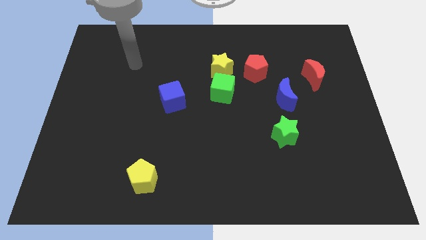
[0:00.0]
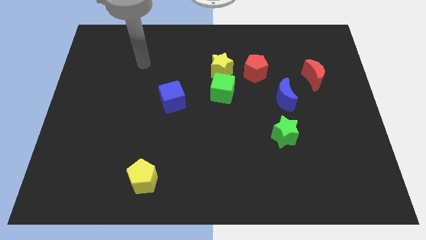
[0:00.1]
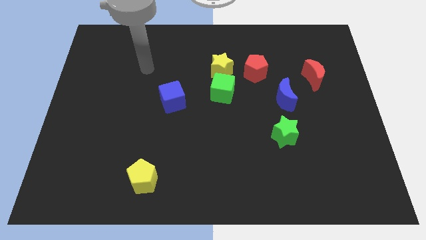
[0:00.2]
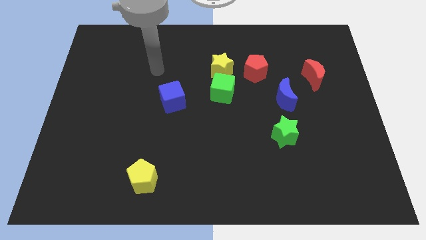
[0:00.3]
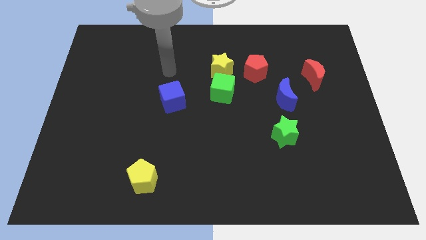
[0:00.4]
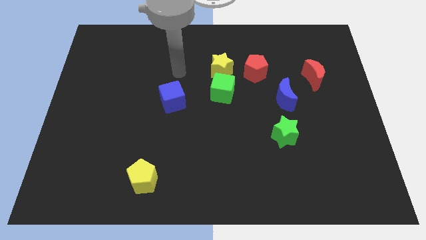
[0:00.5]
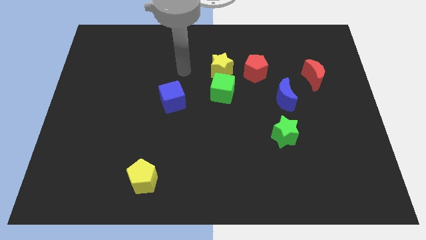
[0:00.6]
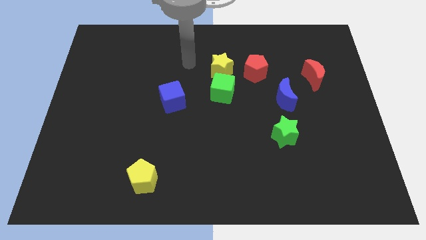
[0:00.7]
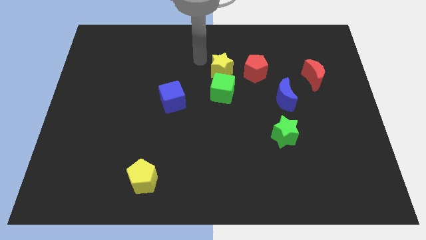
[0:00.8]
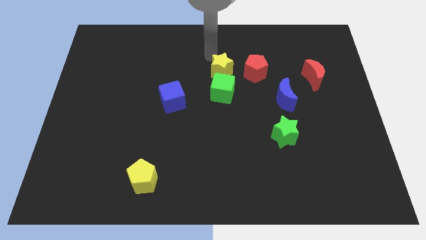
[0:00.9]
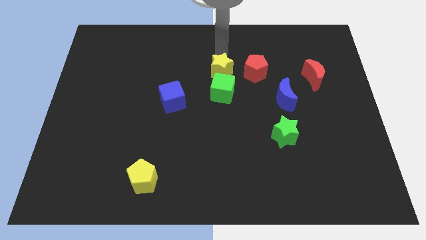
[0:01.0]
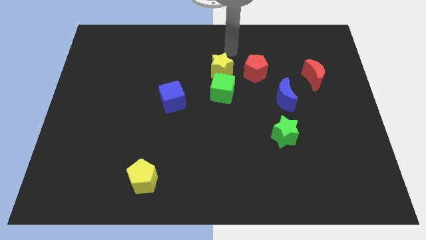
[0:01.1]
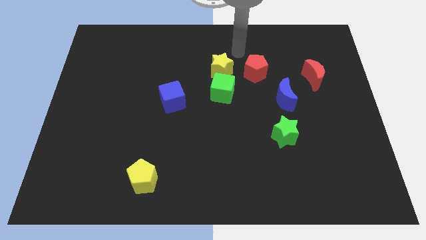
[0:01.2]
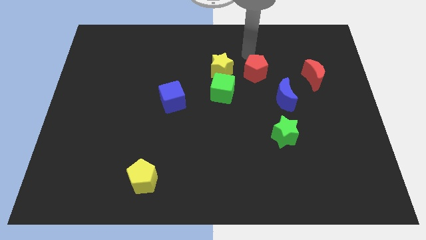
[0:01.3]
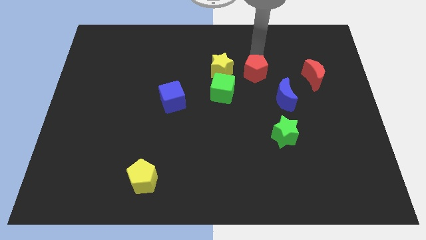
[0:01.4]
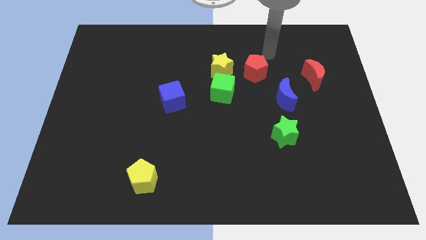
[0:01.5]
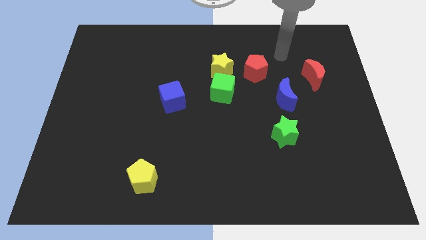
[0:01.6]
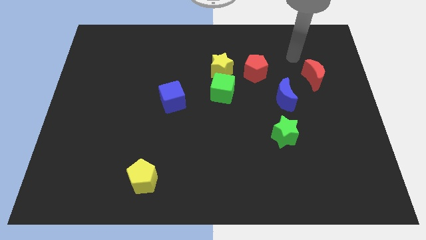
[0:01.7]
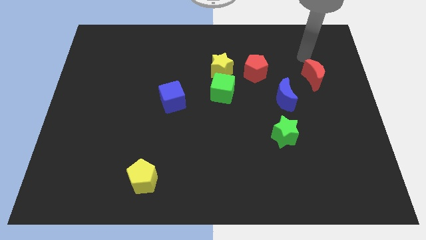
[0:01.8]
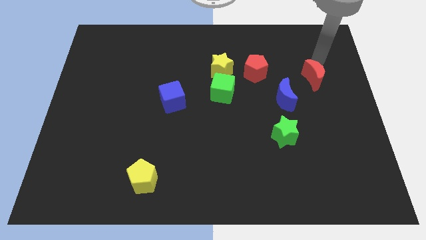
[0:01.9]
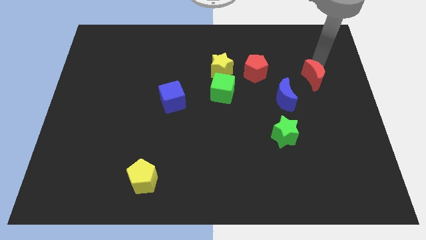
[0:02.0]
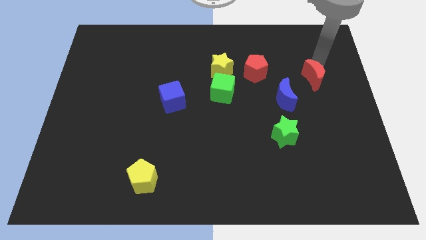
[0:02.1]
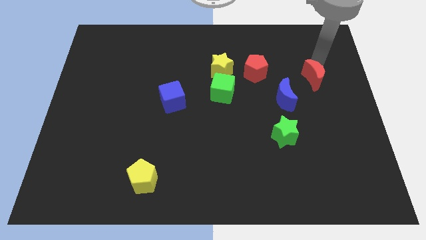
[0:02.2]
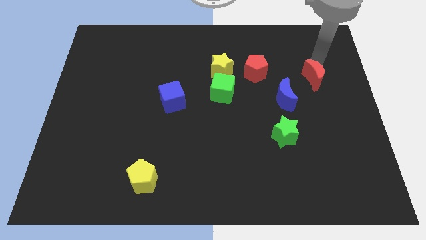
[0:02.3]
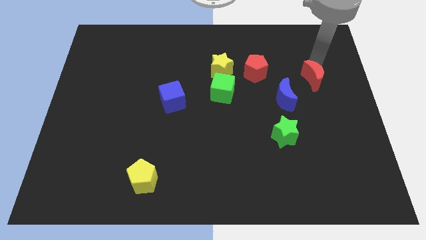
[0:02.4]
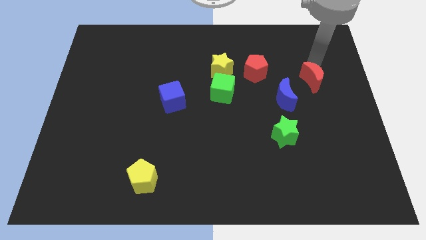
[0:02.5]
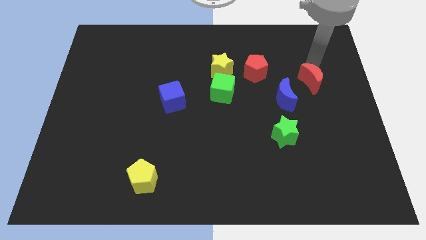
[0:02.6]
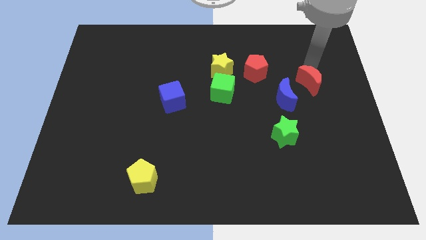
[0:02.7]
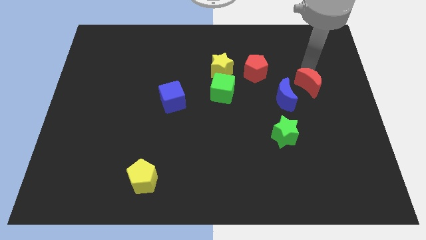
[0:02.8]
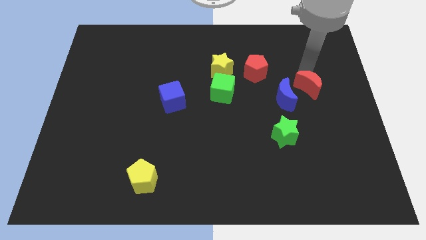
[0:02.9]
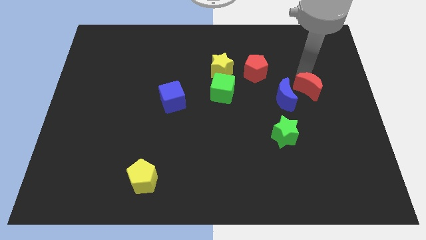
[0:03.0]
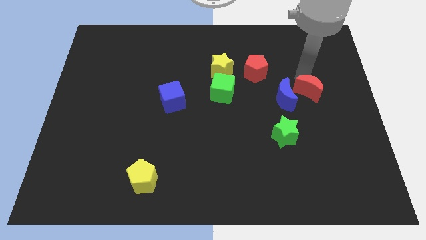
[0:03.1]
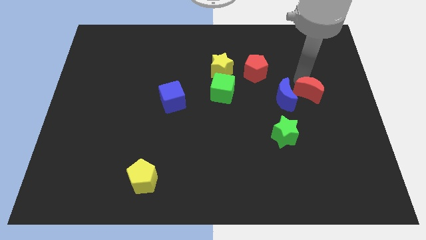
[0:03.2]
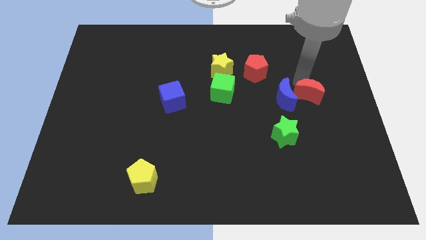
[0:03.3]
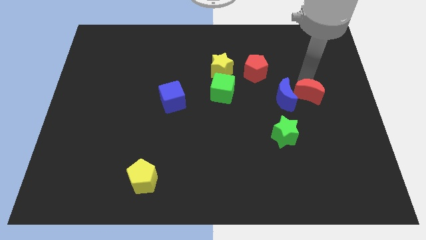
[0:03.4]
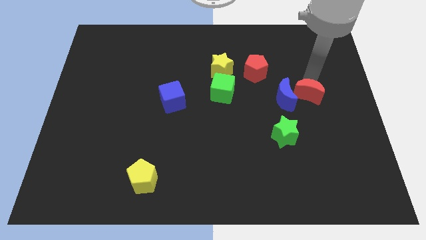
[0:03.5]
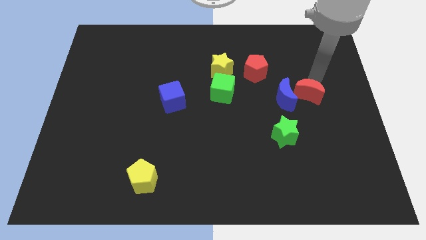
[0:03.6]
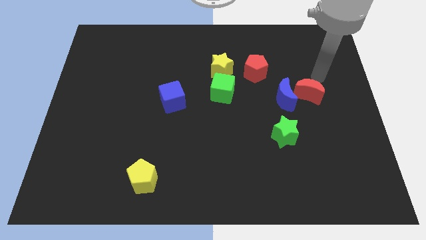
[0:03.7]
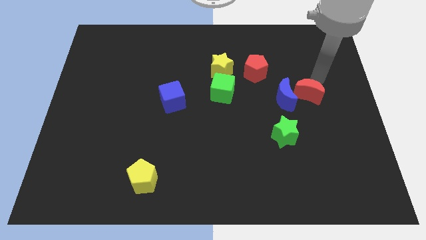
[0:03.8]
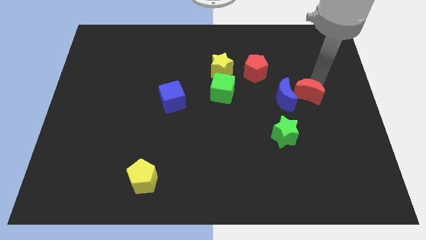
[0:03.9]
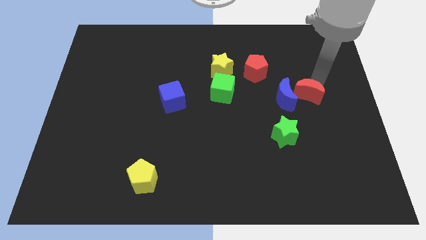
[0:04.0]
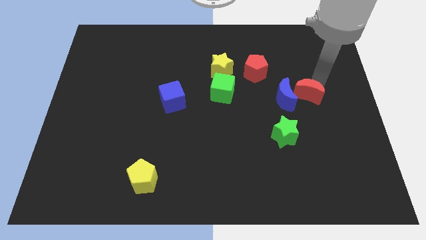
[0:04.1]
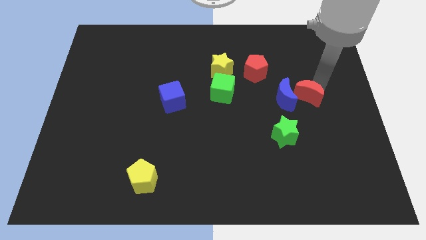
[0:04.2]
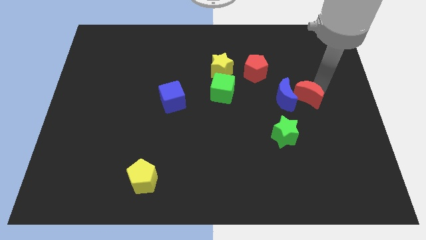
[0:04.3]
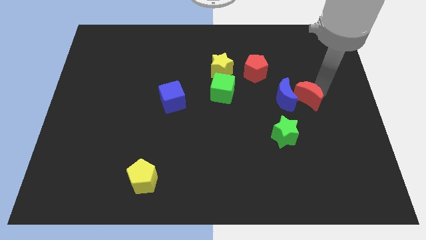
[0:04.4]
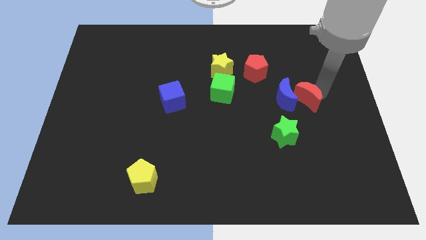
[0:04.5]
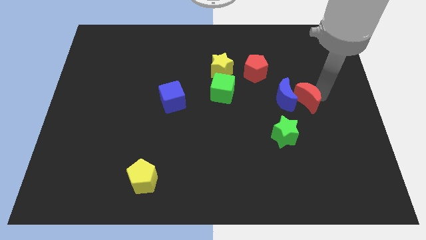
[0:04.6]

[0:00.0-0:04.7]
move the red moon down and to the left diagonally slightly

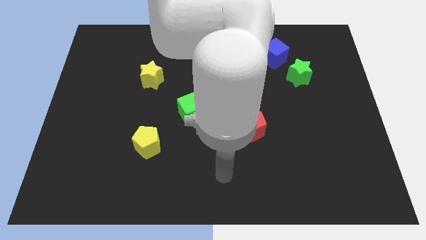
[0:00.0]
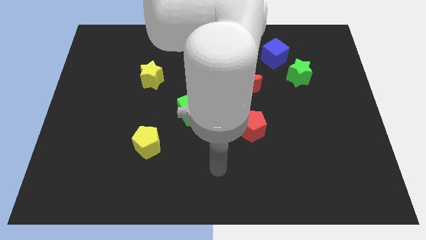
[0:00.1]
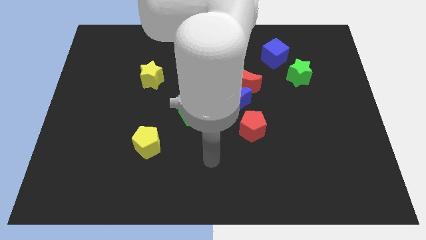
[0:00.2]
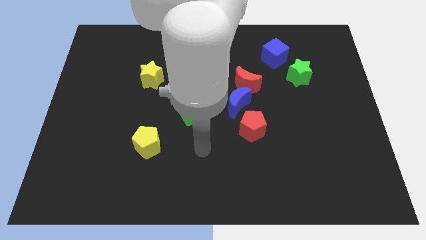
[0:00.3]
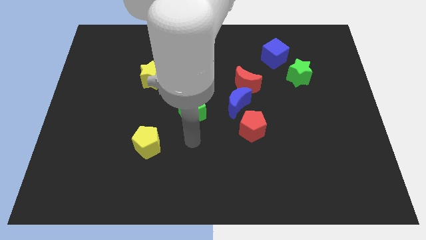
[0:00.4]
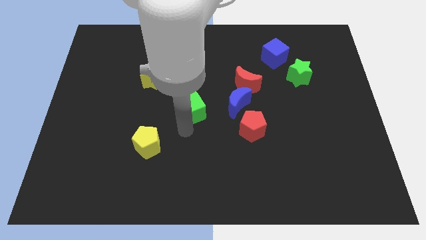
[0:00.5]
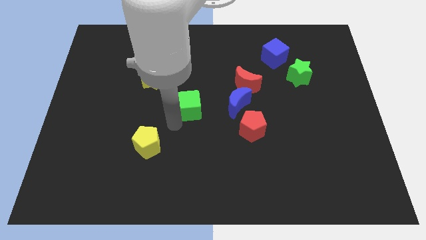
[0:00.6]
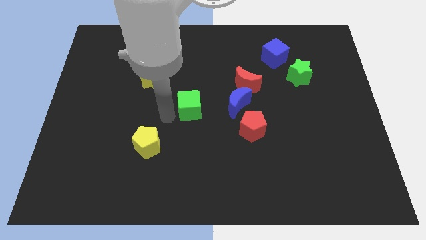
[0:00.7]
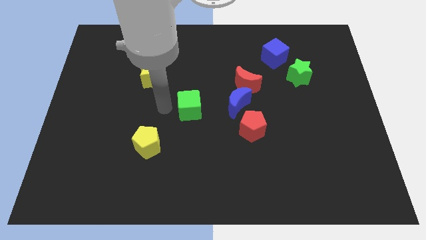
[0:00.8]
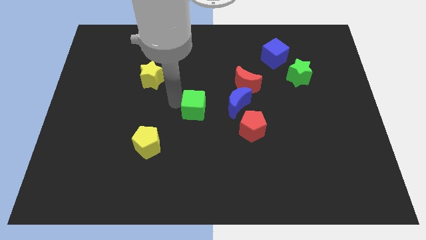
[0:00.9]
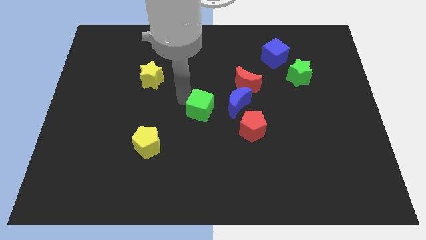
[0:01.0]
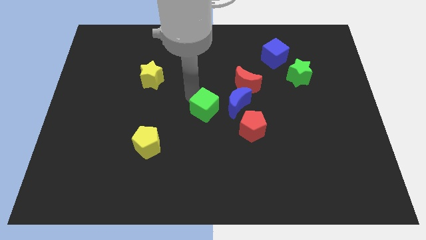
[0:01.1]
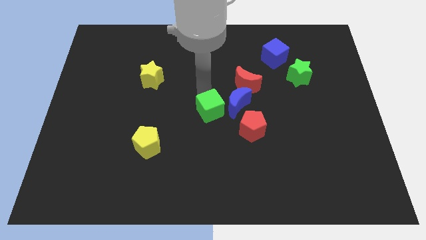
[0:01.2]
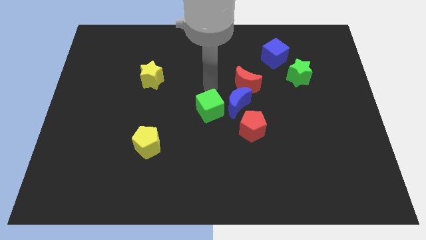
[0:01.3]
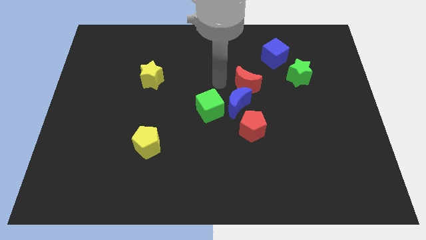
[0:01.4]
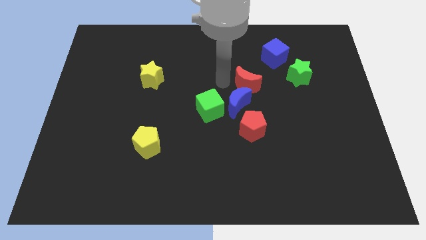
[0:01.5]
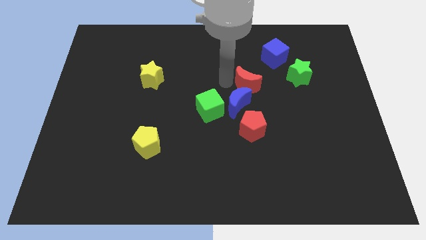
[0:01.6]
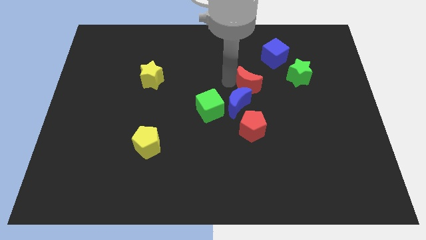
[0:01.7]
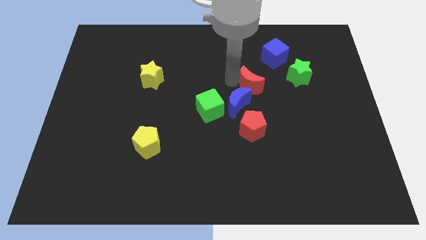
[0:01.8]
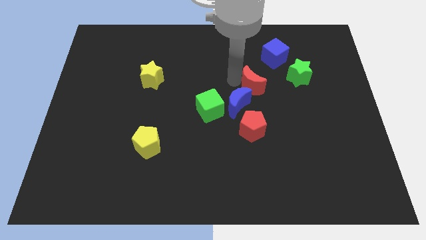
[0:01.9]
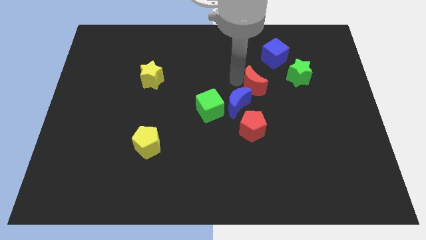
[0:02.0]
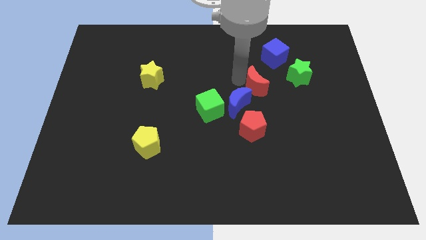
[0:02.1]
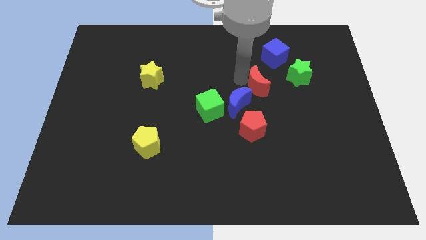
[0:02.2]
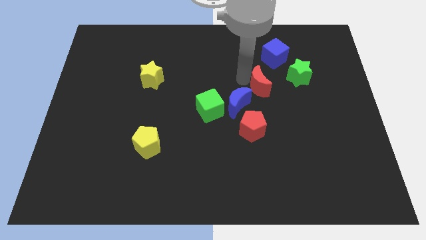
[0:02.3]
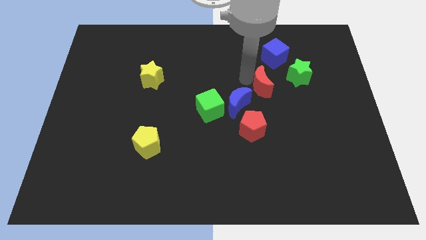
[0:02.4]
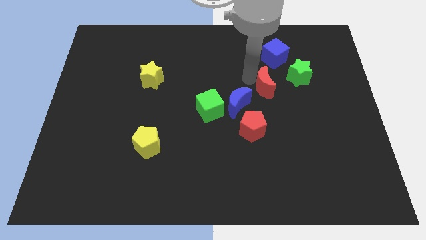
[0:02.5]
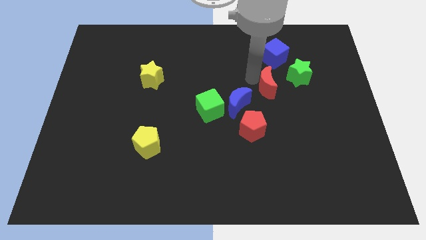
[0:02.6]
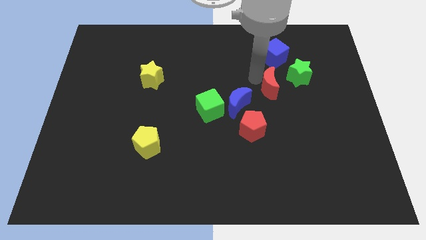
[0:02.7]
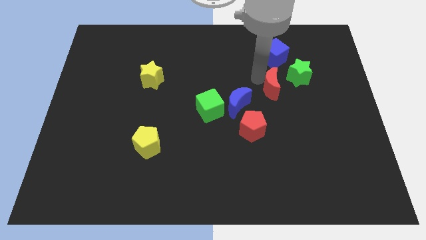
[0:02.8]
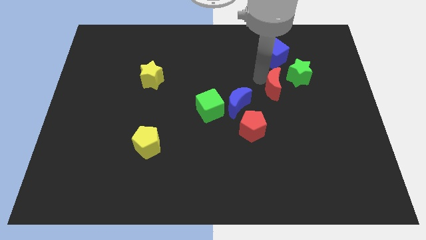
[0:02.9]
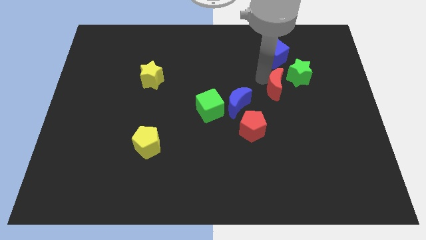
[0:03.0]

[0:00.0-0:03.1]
move the red moon somewhat to the right

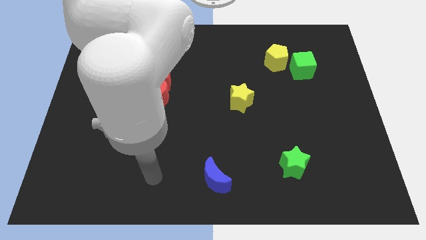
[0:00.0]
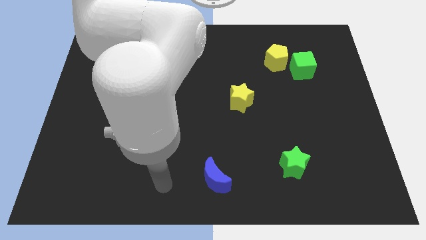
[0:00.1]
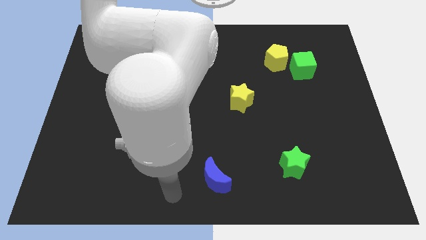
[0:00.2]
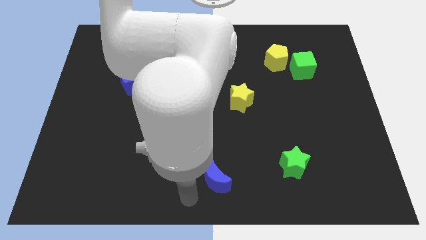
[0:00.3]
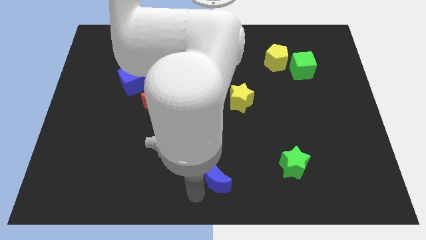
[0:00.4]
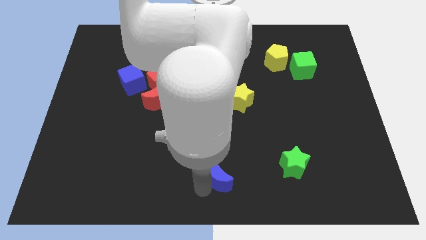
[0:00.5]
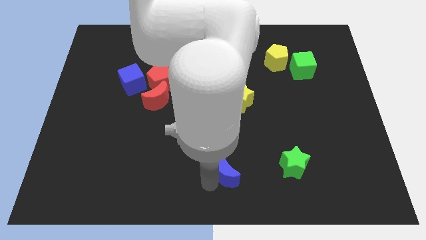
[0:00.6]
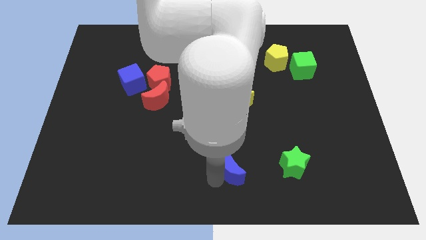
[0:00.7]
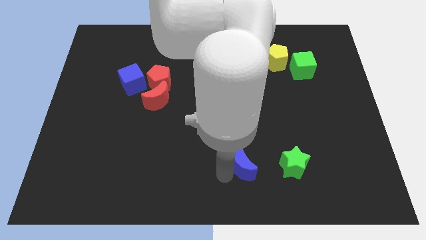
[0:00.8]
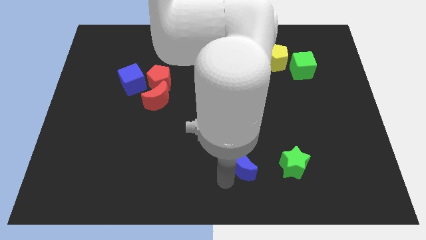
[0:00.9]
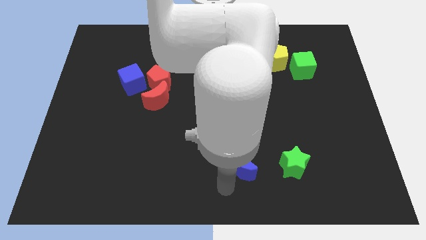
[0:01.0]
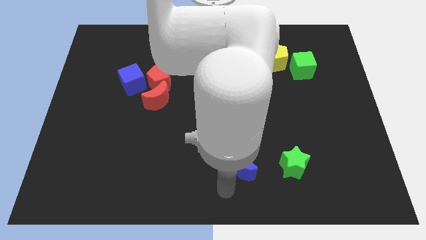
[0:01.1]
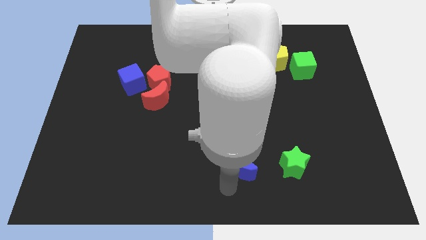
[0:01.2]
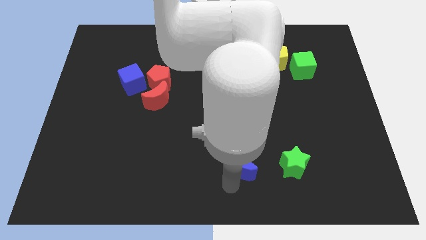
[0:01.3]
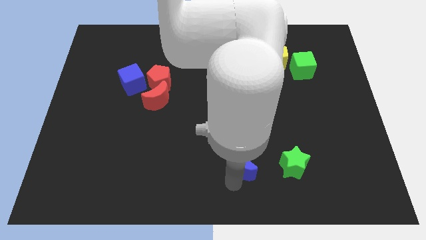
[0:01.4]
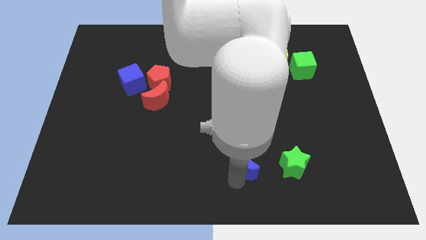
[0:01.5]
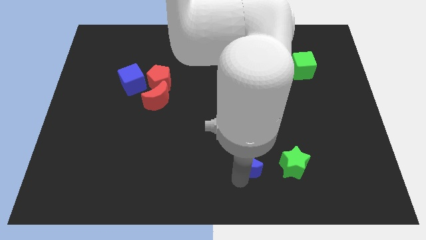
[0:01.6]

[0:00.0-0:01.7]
slightly push the blue moon up and then to the right
